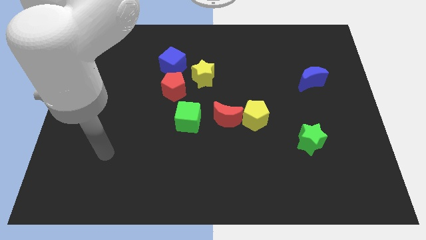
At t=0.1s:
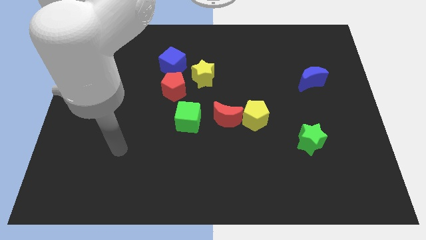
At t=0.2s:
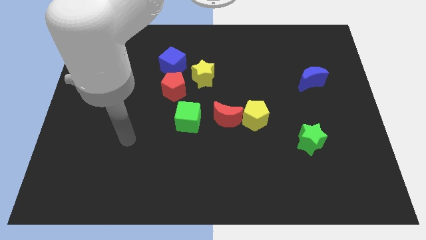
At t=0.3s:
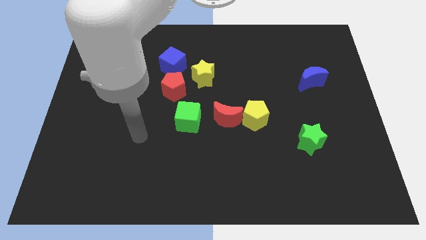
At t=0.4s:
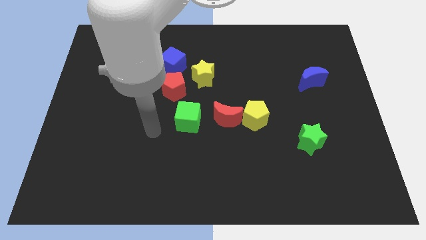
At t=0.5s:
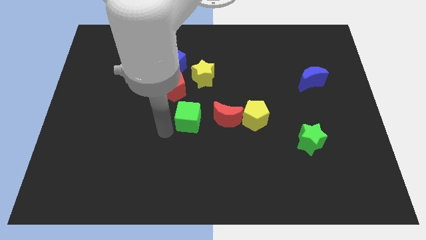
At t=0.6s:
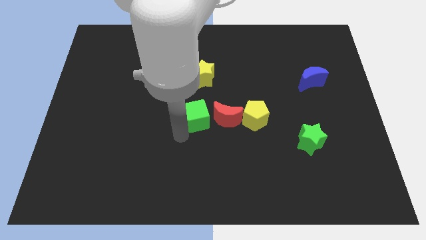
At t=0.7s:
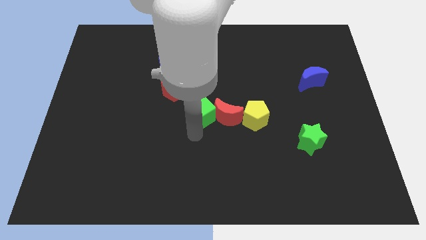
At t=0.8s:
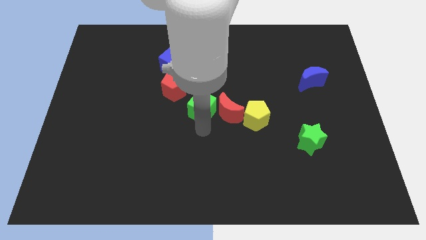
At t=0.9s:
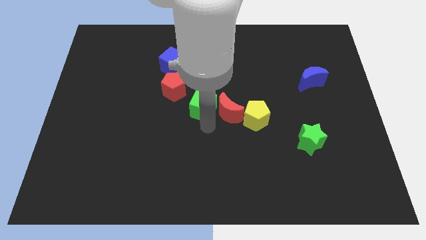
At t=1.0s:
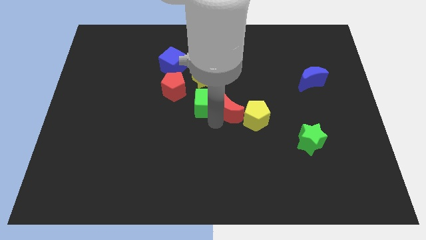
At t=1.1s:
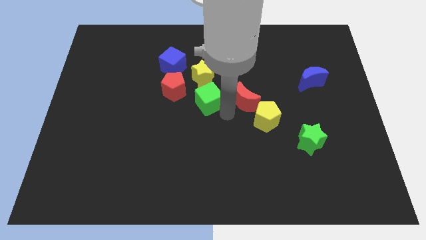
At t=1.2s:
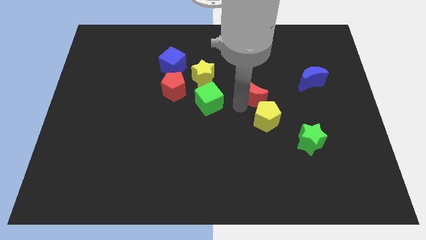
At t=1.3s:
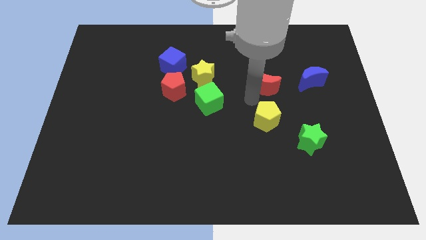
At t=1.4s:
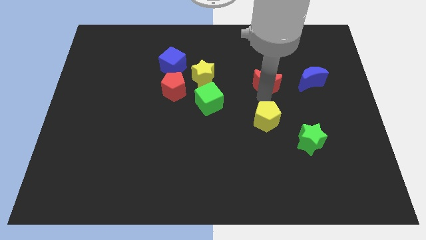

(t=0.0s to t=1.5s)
pull the yellow pentagon apart from the red moon

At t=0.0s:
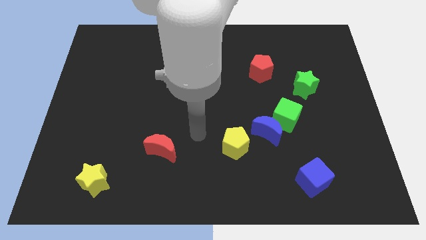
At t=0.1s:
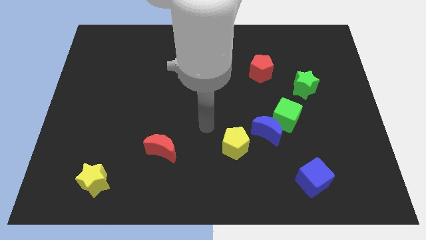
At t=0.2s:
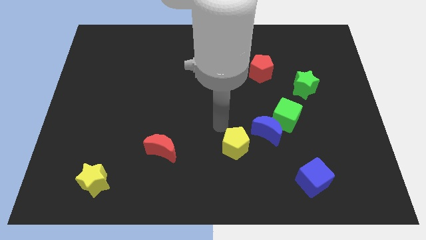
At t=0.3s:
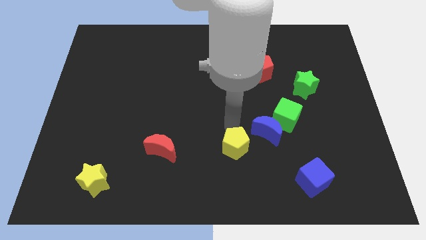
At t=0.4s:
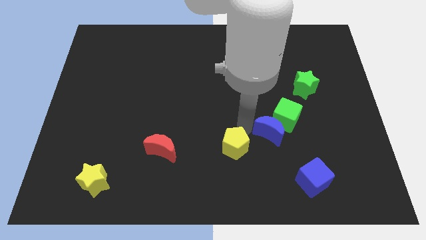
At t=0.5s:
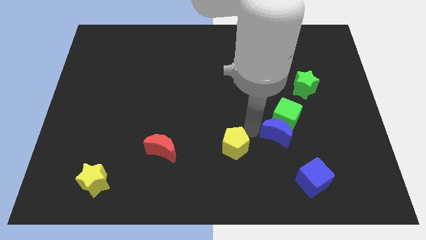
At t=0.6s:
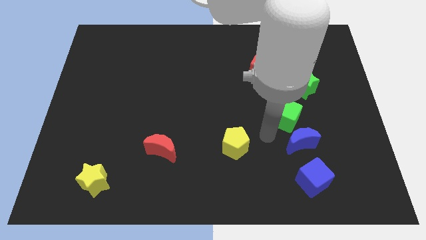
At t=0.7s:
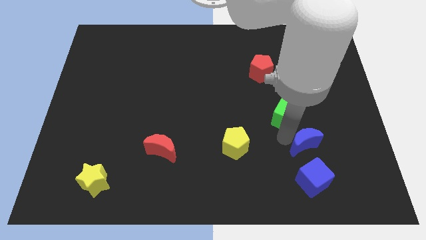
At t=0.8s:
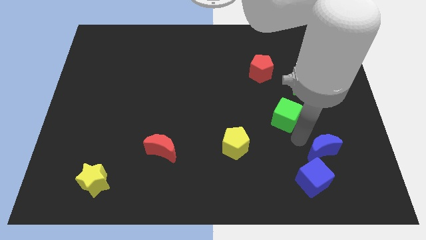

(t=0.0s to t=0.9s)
move the green cube away from the blue moon

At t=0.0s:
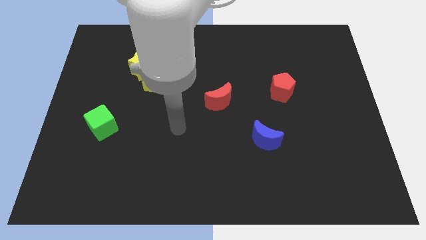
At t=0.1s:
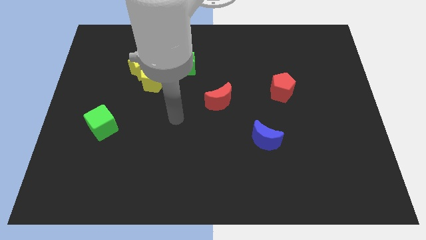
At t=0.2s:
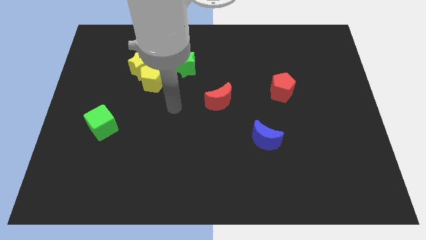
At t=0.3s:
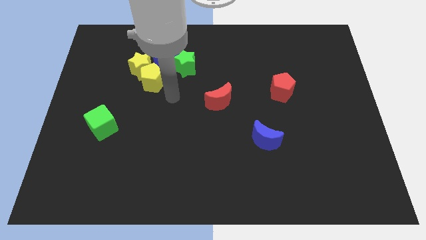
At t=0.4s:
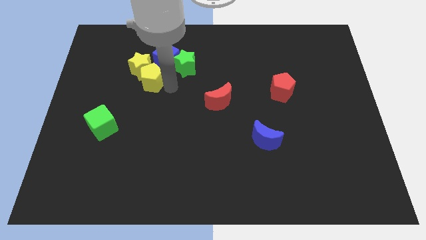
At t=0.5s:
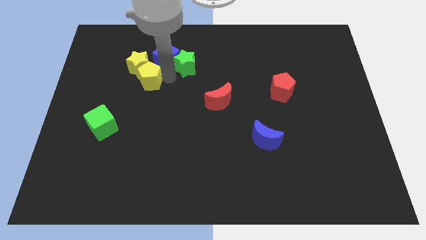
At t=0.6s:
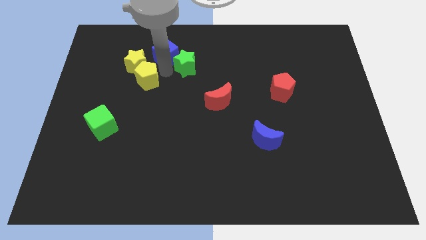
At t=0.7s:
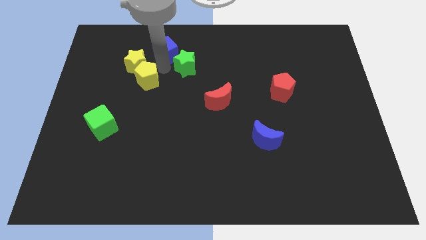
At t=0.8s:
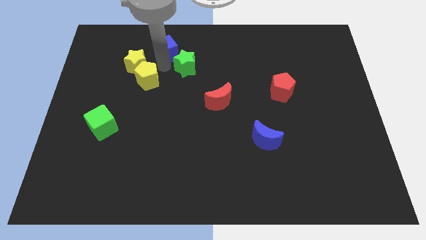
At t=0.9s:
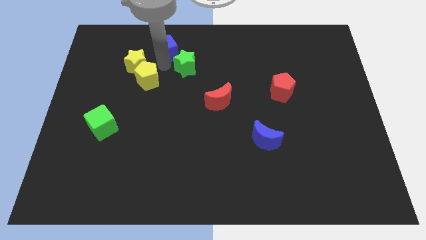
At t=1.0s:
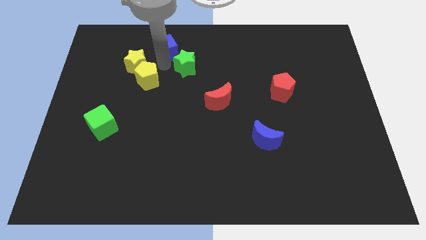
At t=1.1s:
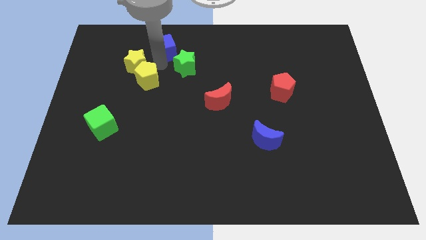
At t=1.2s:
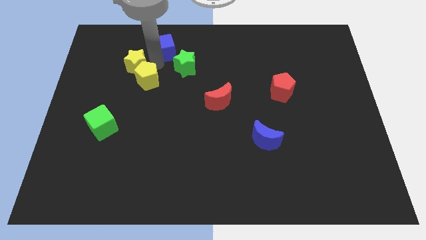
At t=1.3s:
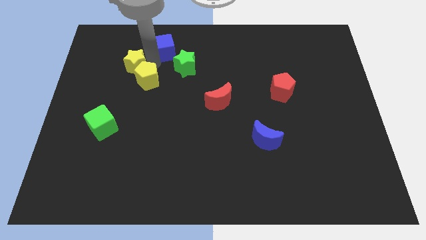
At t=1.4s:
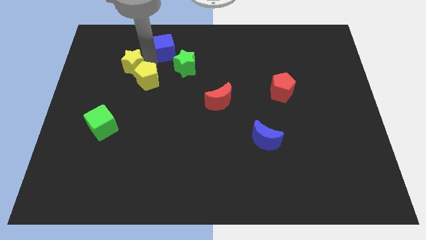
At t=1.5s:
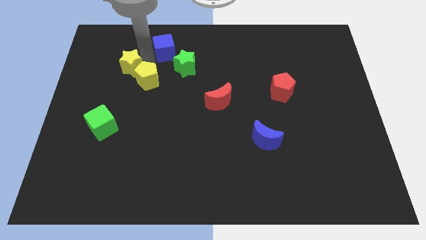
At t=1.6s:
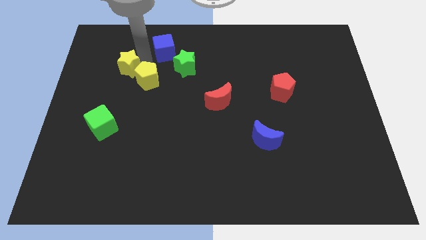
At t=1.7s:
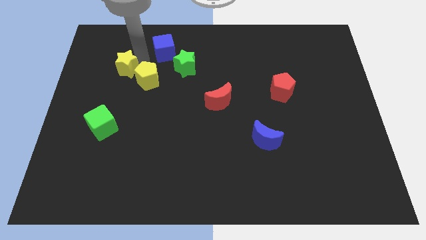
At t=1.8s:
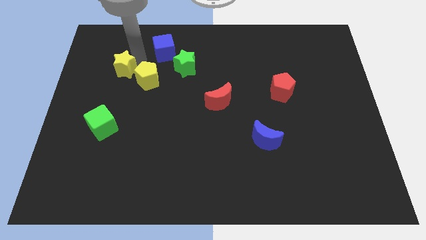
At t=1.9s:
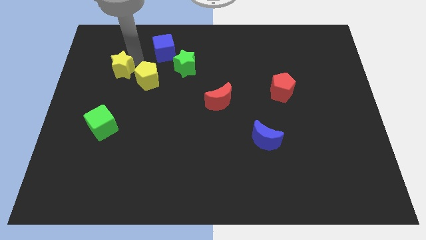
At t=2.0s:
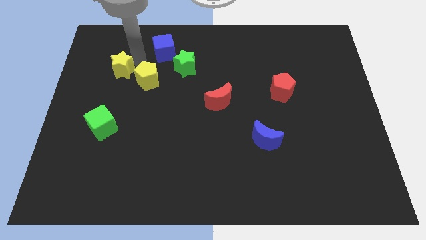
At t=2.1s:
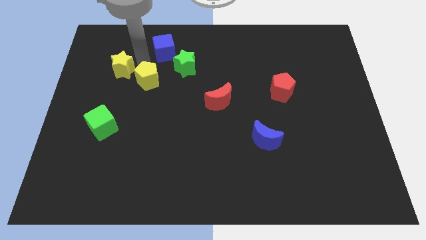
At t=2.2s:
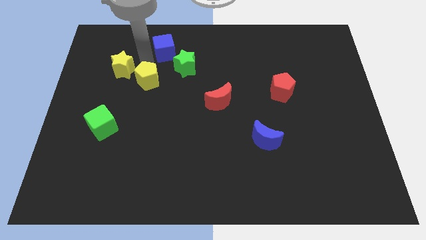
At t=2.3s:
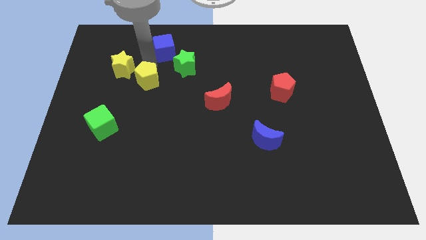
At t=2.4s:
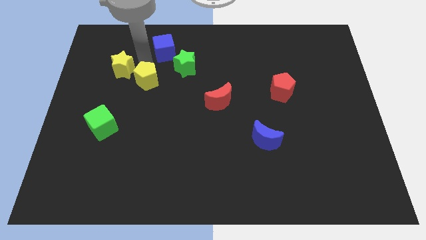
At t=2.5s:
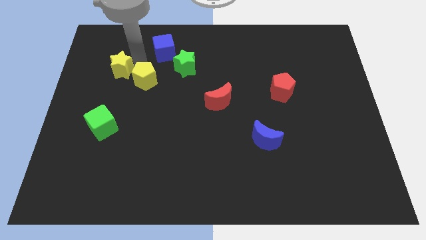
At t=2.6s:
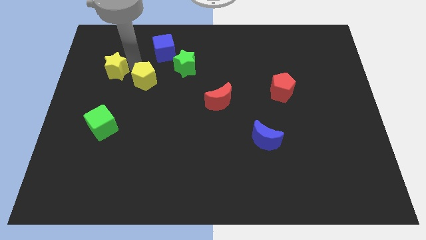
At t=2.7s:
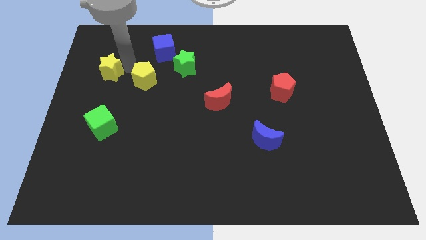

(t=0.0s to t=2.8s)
separate the yellow star from the yellow pentagon and blue cube

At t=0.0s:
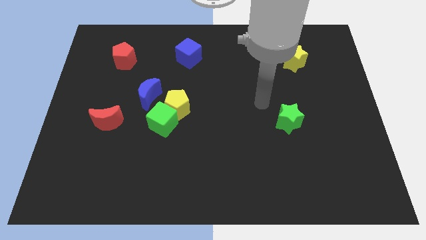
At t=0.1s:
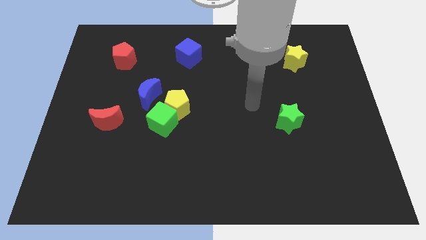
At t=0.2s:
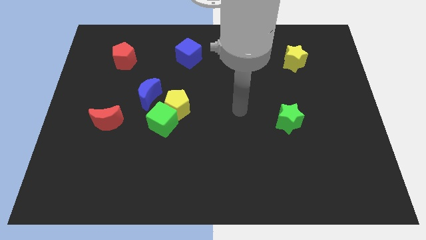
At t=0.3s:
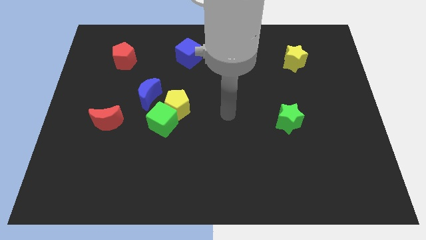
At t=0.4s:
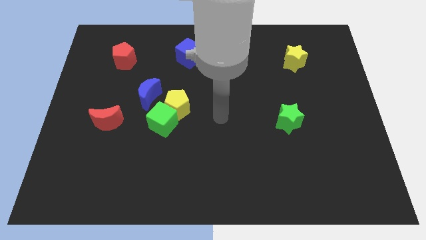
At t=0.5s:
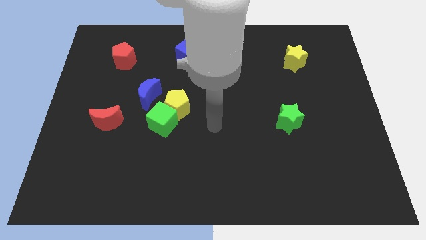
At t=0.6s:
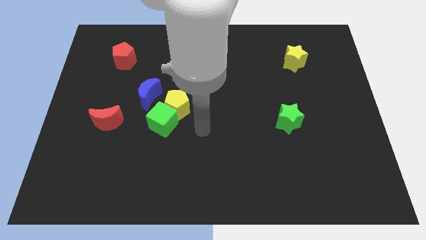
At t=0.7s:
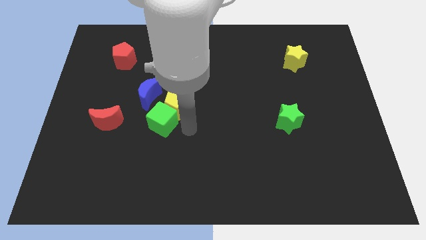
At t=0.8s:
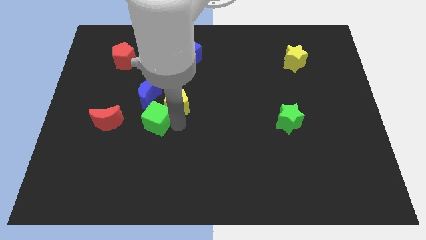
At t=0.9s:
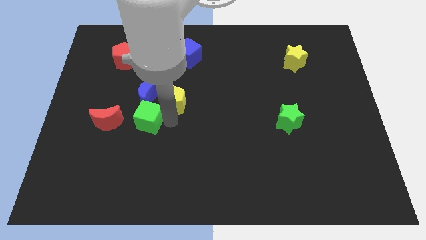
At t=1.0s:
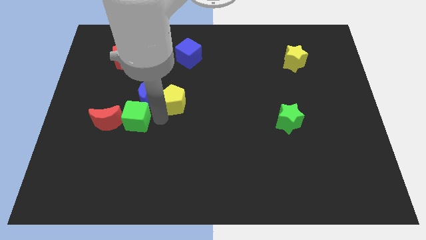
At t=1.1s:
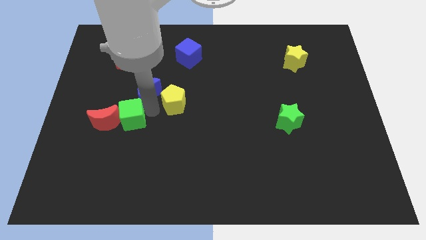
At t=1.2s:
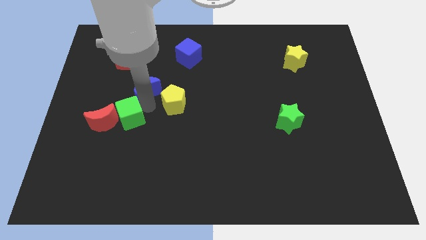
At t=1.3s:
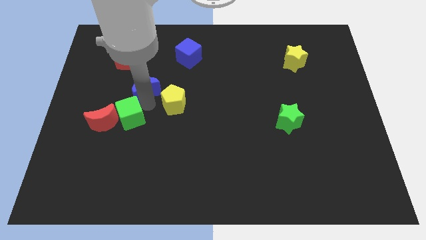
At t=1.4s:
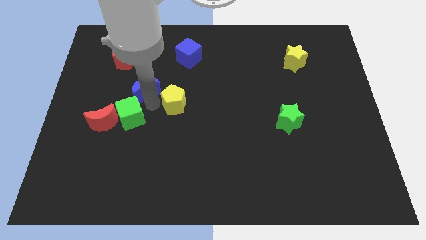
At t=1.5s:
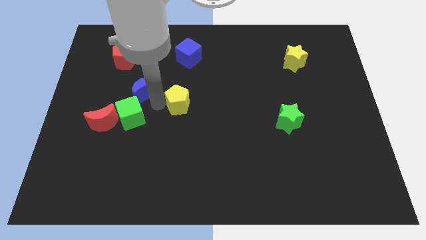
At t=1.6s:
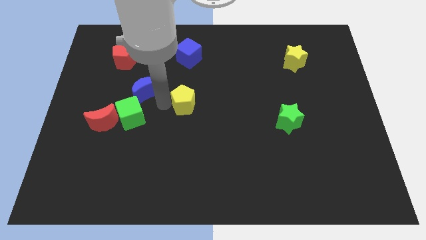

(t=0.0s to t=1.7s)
separate the yellow pentagon from the green cube and blue moon

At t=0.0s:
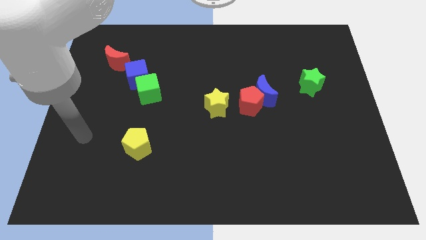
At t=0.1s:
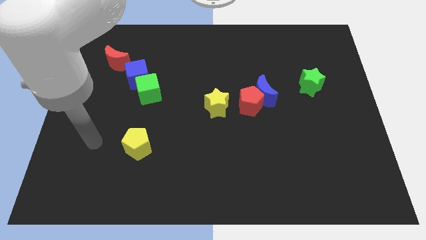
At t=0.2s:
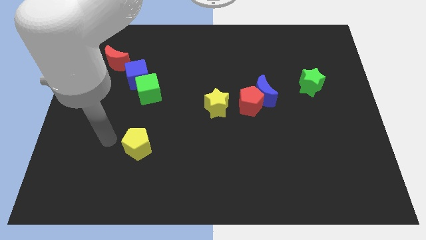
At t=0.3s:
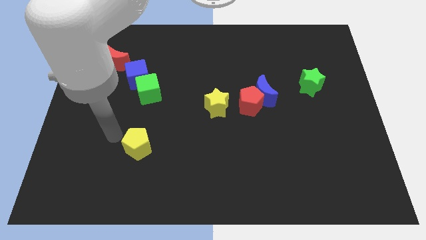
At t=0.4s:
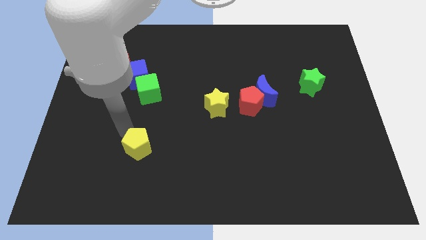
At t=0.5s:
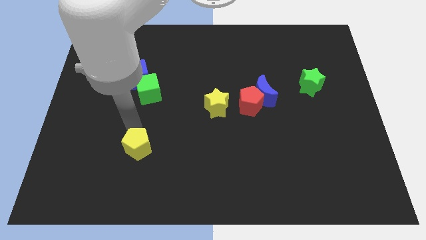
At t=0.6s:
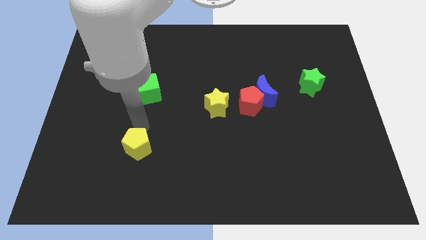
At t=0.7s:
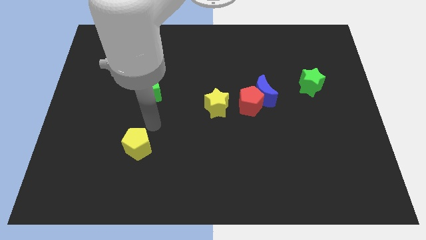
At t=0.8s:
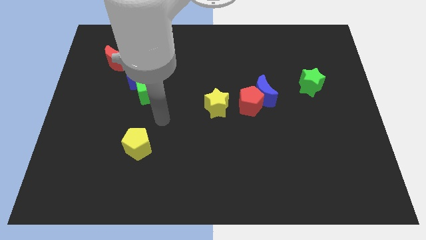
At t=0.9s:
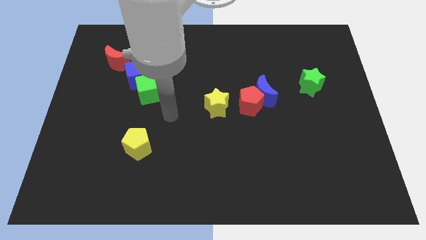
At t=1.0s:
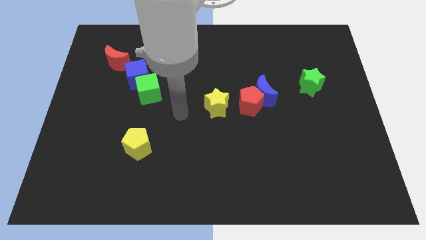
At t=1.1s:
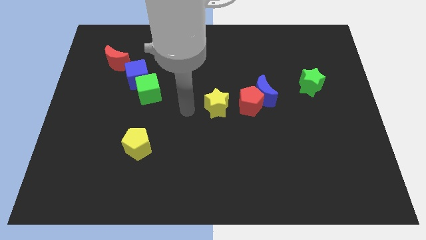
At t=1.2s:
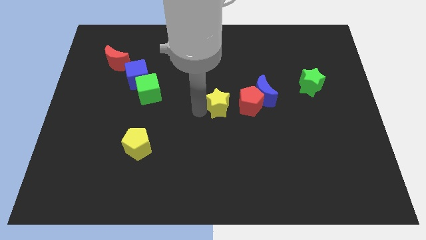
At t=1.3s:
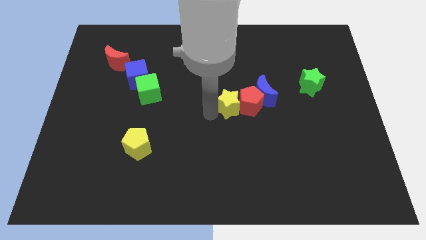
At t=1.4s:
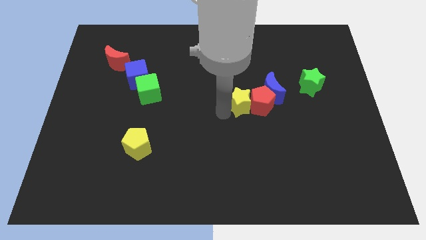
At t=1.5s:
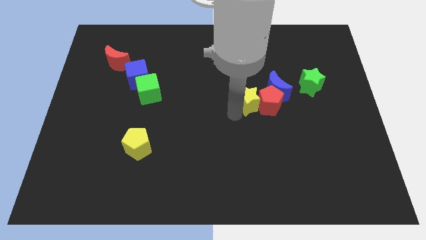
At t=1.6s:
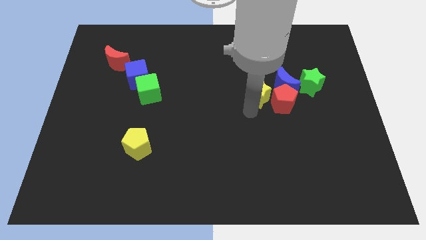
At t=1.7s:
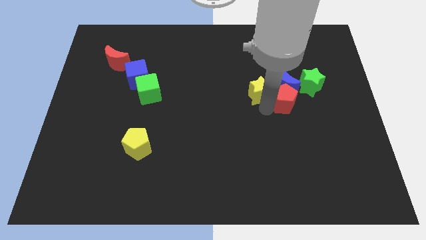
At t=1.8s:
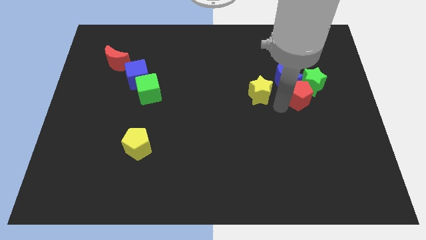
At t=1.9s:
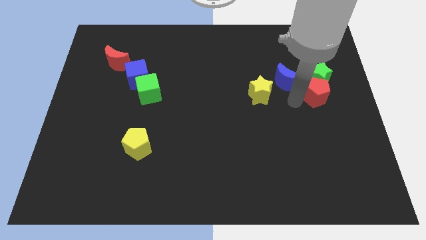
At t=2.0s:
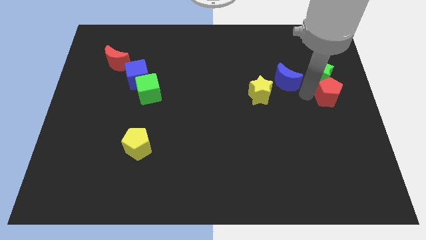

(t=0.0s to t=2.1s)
separate the blue moon from the red pentagon

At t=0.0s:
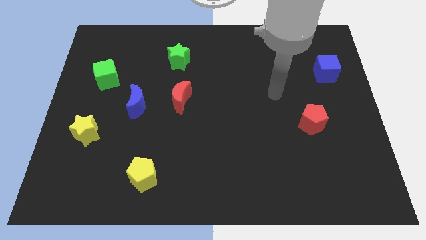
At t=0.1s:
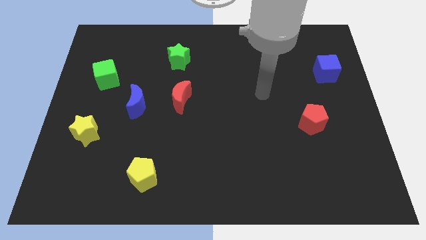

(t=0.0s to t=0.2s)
move the red moon away from the blue moon

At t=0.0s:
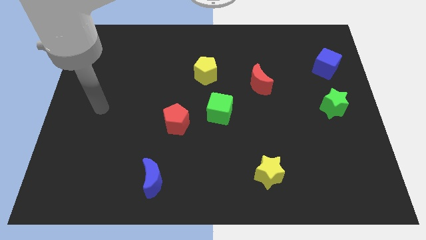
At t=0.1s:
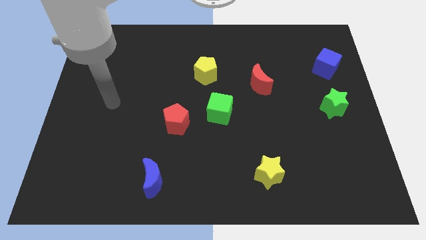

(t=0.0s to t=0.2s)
move the red pentagon away from the green cube
